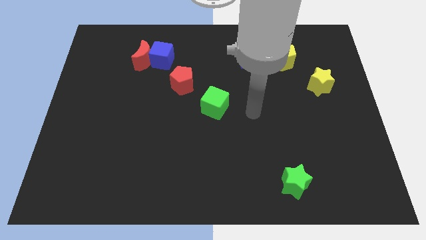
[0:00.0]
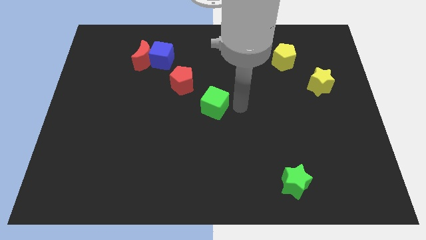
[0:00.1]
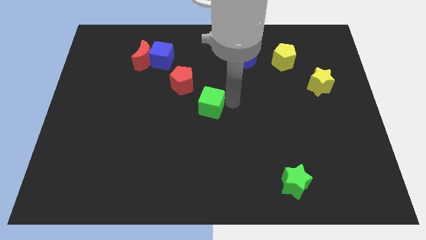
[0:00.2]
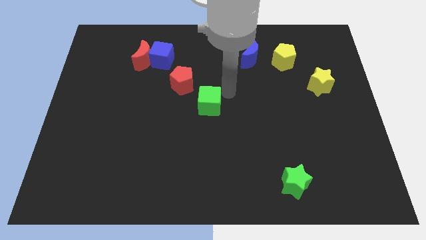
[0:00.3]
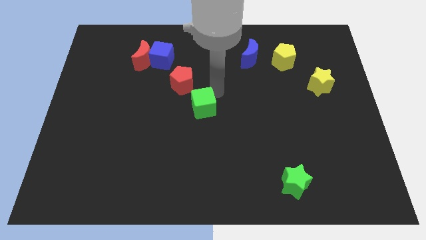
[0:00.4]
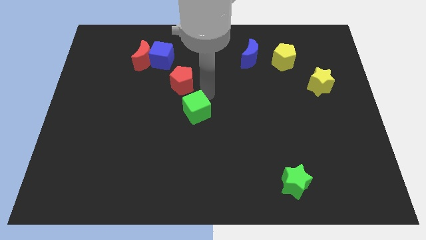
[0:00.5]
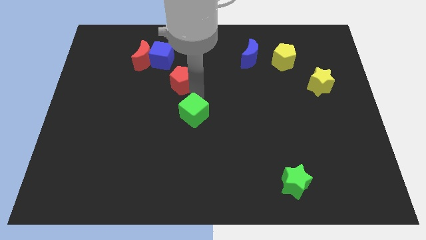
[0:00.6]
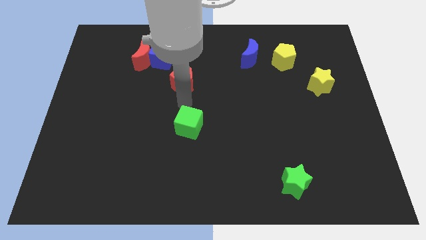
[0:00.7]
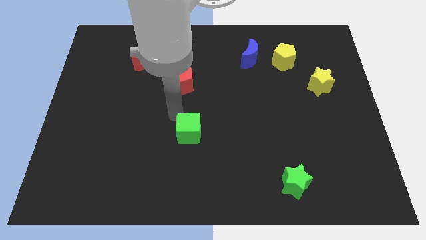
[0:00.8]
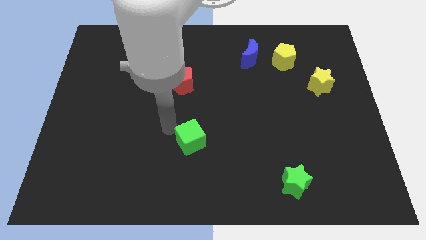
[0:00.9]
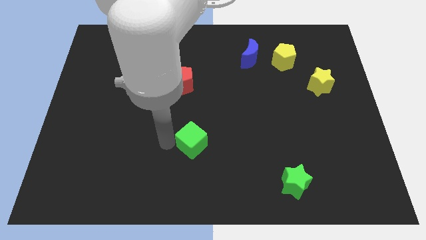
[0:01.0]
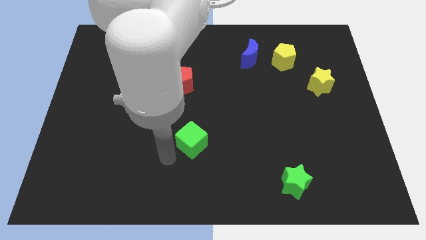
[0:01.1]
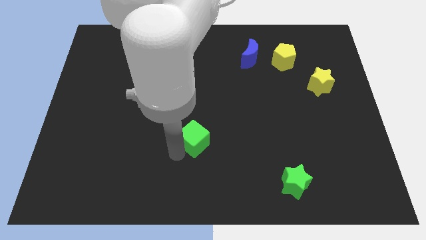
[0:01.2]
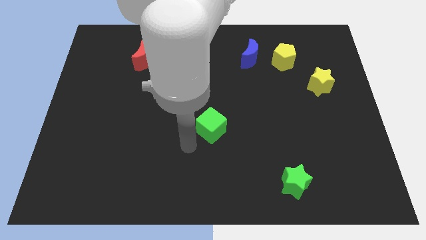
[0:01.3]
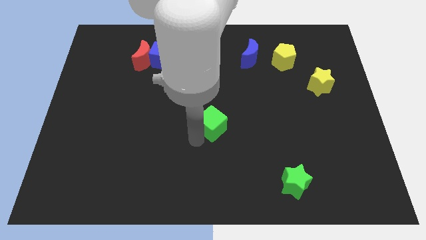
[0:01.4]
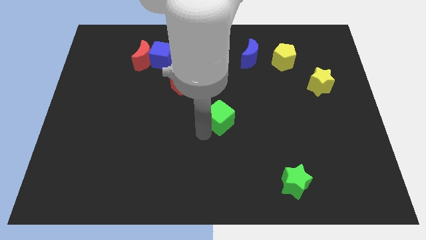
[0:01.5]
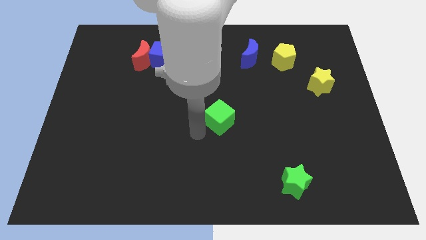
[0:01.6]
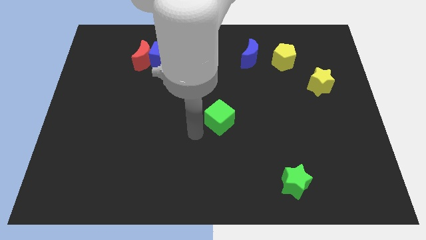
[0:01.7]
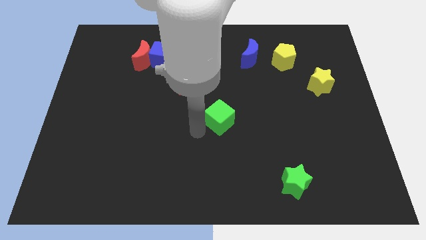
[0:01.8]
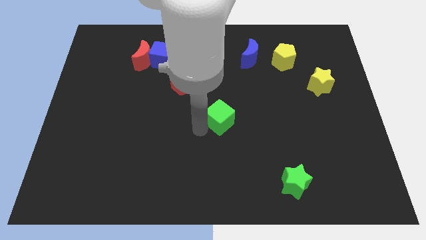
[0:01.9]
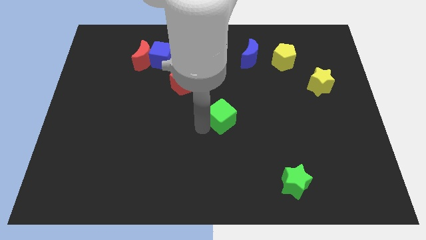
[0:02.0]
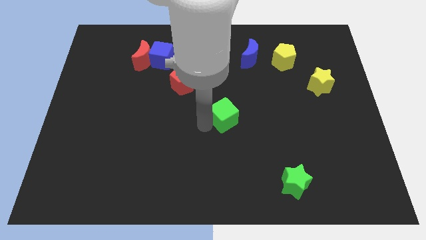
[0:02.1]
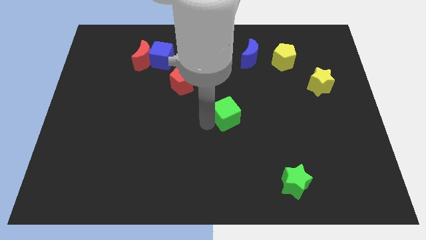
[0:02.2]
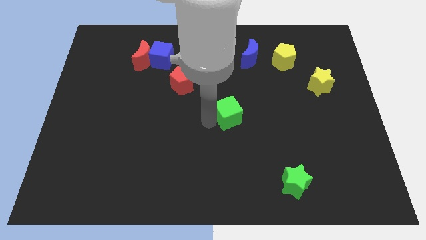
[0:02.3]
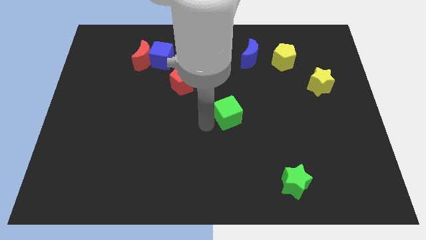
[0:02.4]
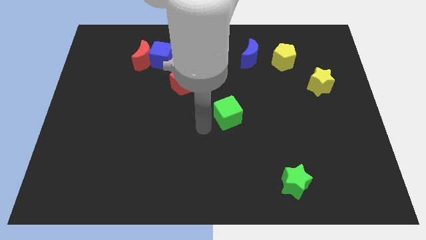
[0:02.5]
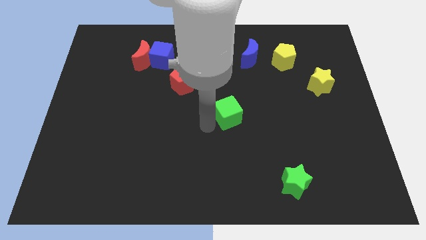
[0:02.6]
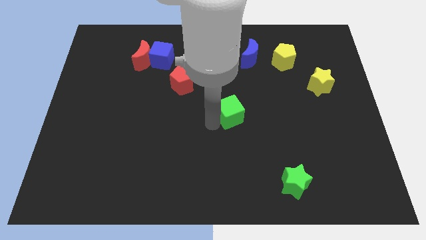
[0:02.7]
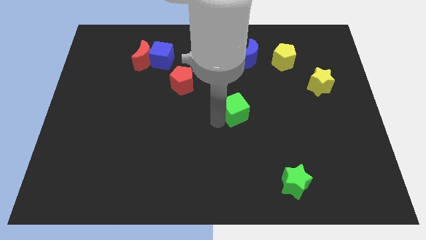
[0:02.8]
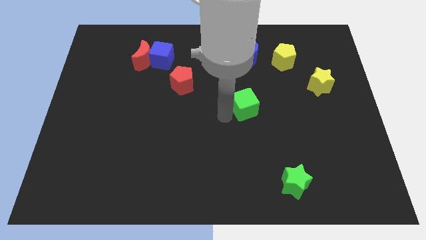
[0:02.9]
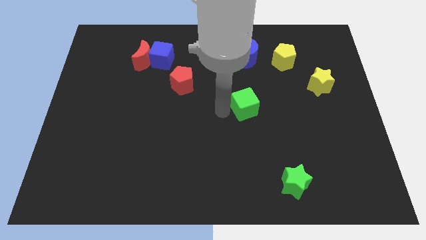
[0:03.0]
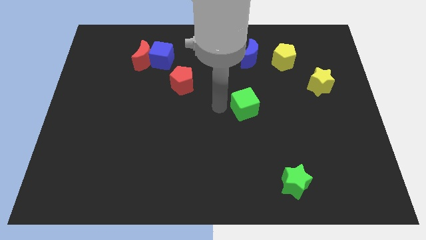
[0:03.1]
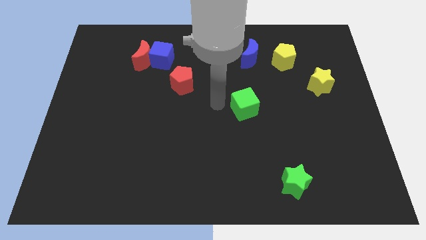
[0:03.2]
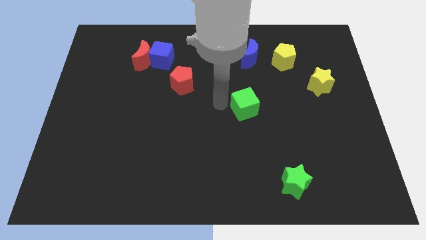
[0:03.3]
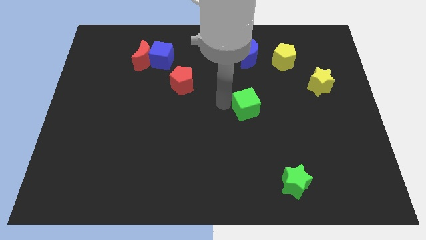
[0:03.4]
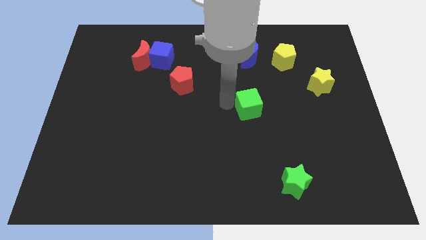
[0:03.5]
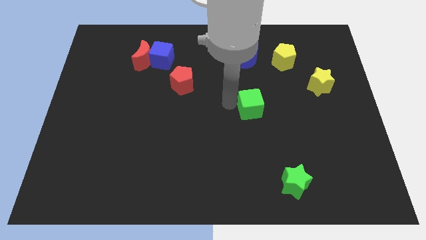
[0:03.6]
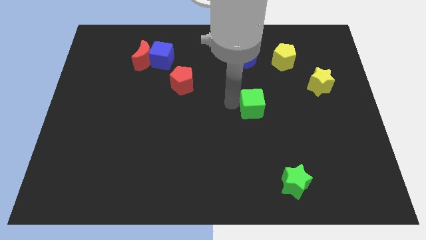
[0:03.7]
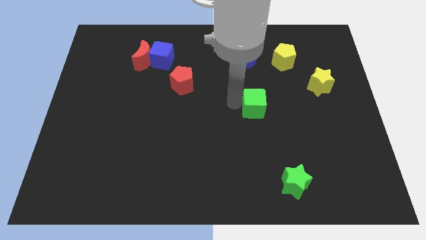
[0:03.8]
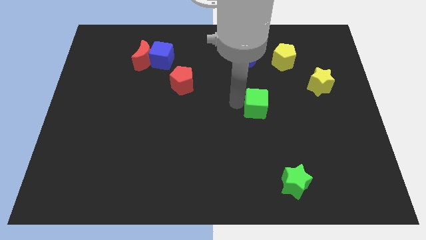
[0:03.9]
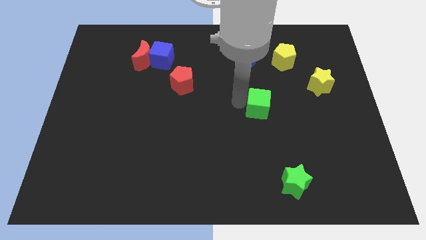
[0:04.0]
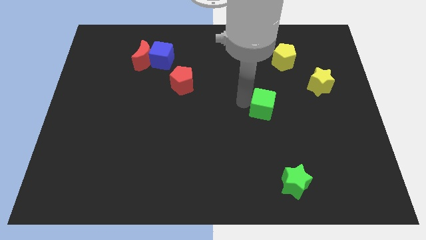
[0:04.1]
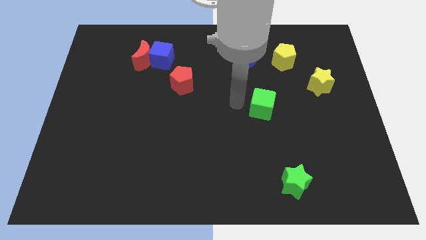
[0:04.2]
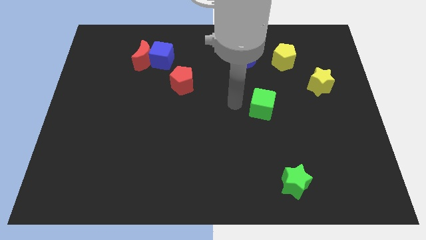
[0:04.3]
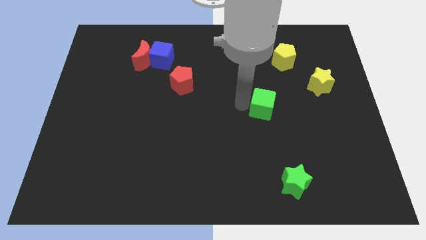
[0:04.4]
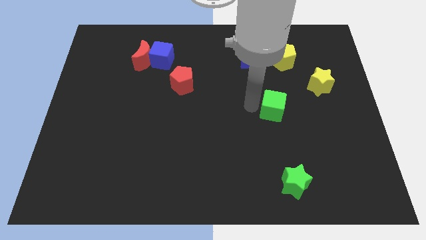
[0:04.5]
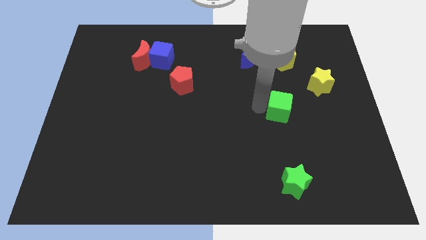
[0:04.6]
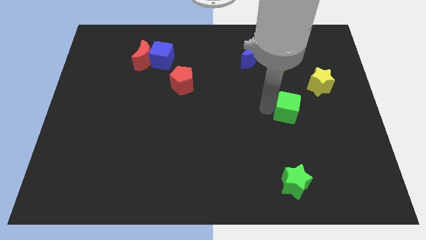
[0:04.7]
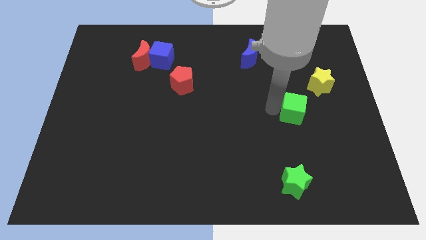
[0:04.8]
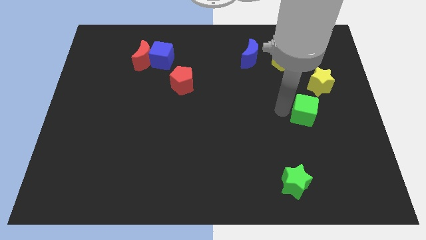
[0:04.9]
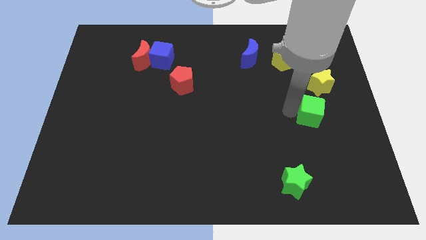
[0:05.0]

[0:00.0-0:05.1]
put the green cube to the bottom side of the yellow star

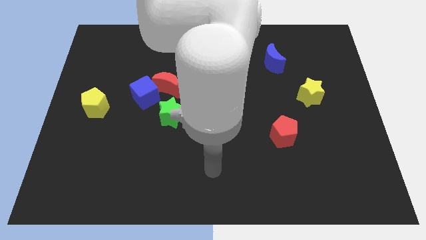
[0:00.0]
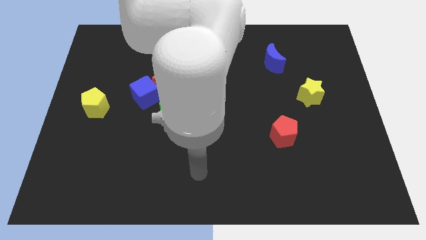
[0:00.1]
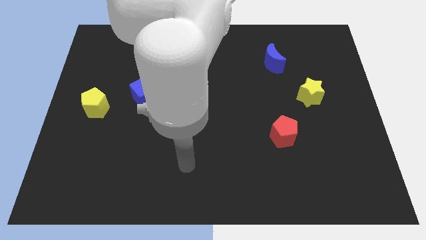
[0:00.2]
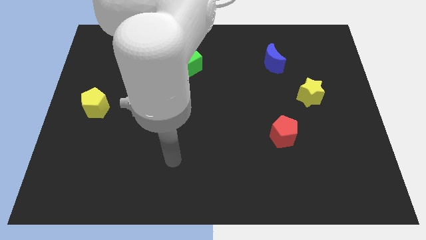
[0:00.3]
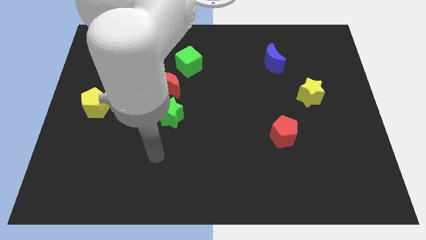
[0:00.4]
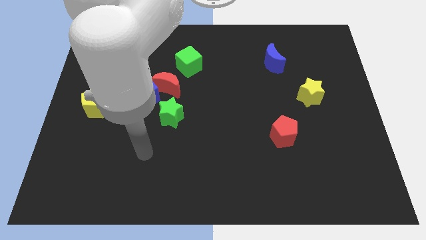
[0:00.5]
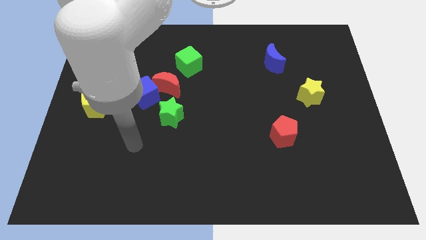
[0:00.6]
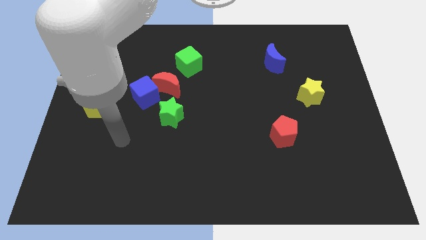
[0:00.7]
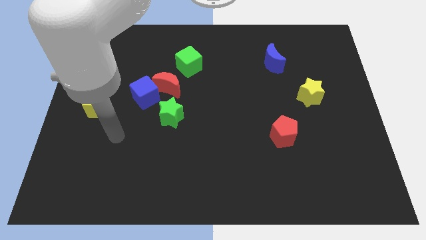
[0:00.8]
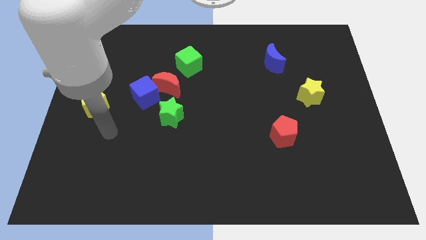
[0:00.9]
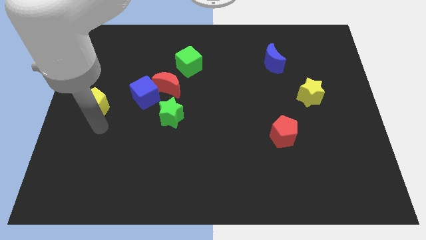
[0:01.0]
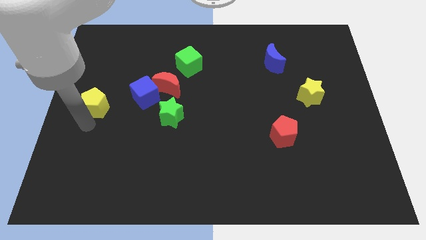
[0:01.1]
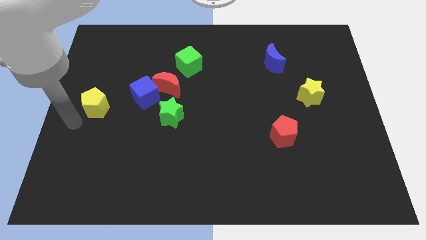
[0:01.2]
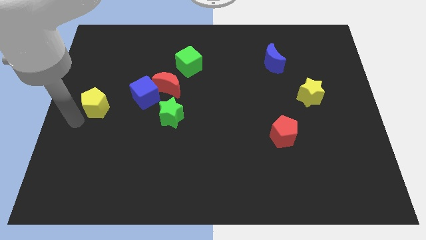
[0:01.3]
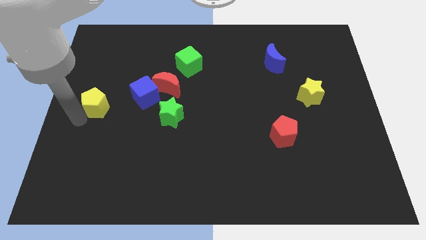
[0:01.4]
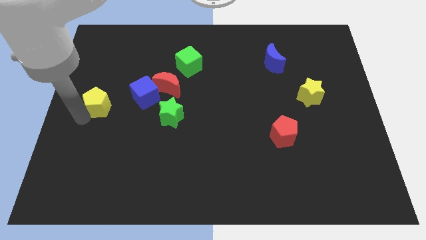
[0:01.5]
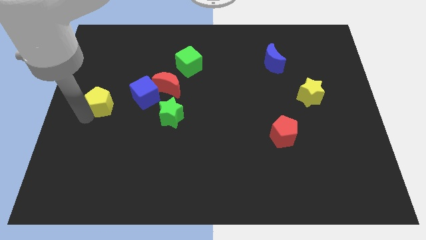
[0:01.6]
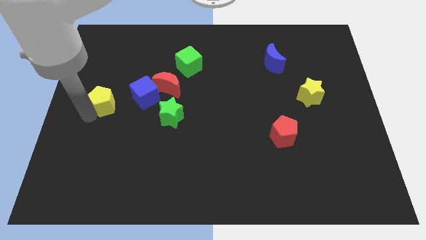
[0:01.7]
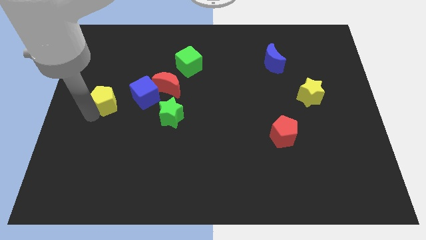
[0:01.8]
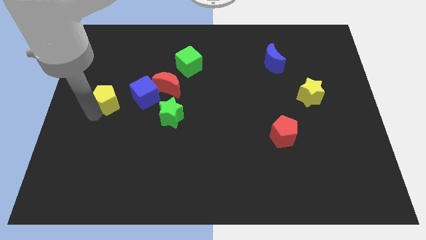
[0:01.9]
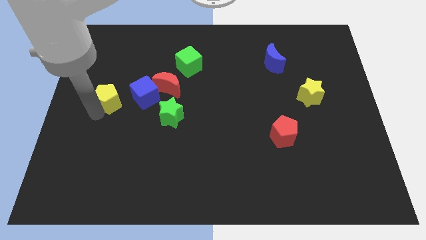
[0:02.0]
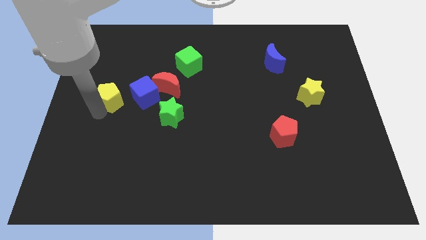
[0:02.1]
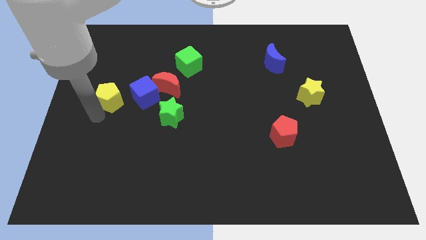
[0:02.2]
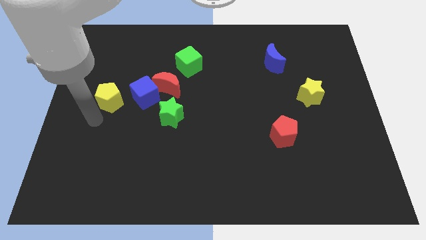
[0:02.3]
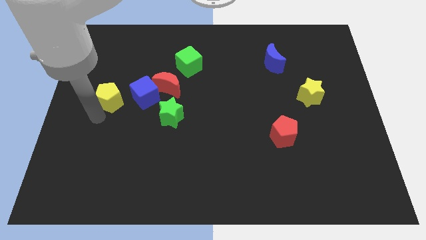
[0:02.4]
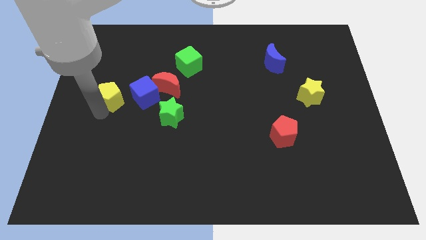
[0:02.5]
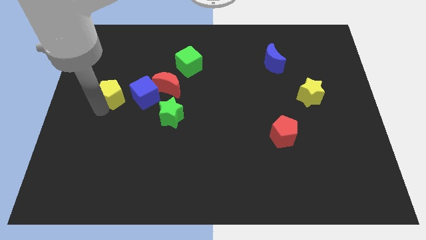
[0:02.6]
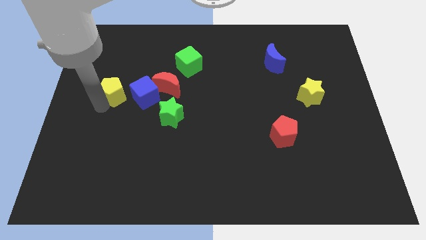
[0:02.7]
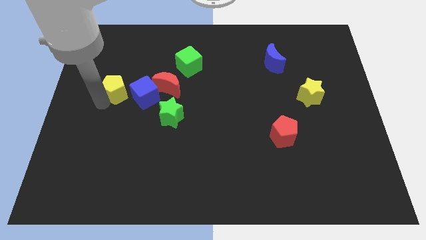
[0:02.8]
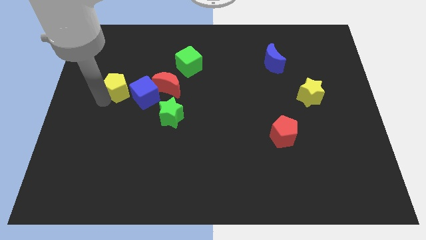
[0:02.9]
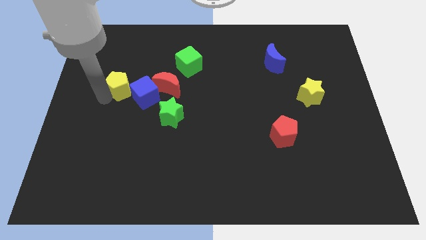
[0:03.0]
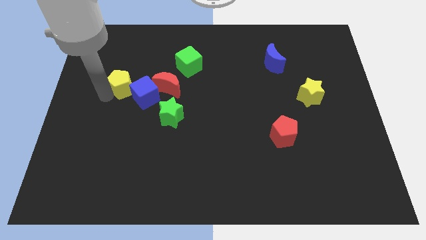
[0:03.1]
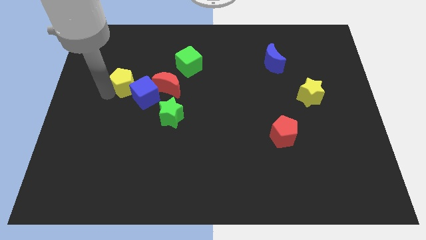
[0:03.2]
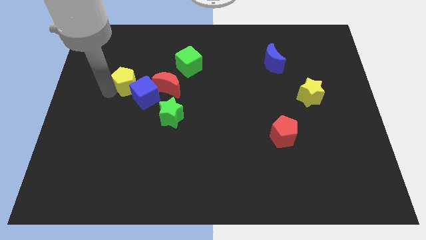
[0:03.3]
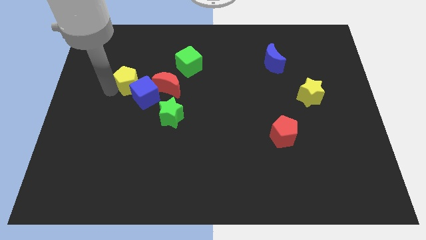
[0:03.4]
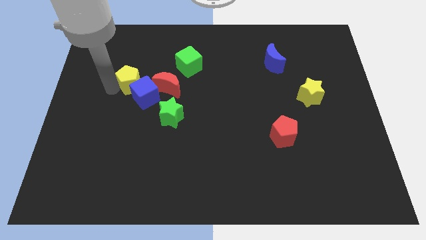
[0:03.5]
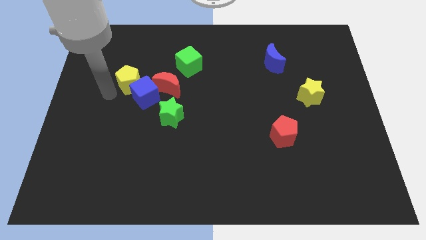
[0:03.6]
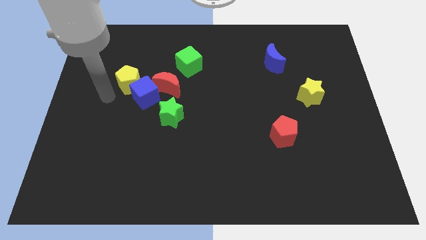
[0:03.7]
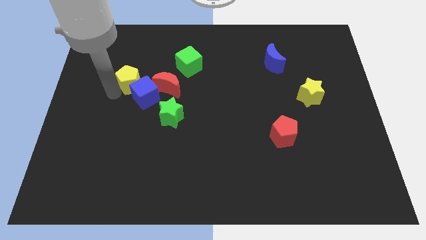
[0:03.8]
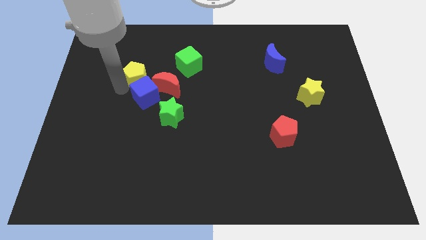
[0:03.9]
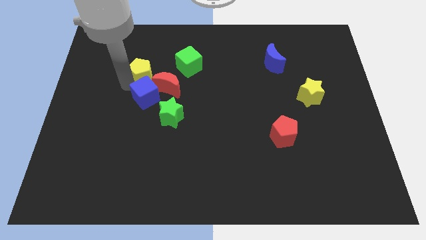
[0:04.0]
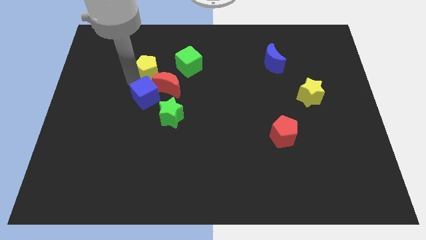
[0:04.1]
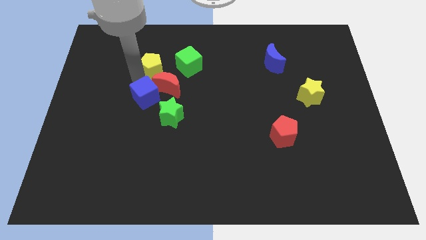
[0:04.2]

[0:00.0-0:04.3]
push the yellow pentagon to the top of the red moon
